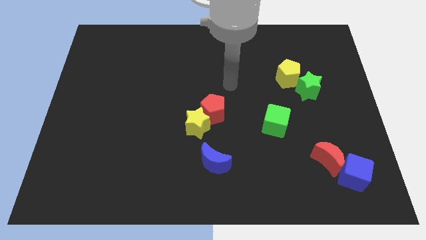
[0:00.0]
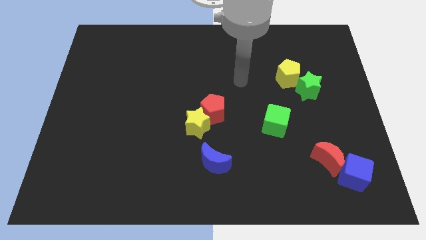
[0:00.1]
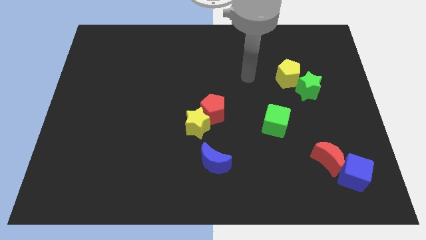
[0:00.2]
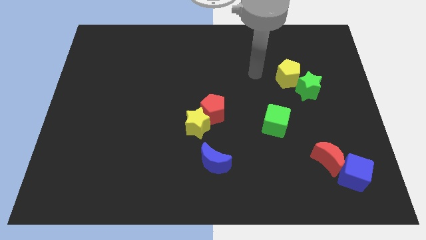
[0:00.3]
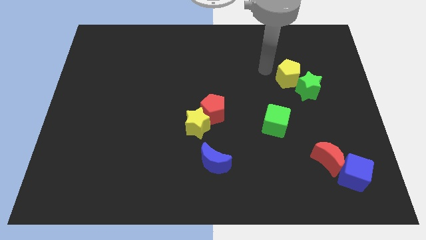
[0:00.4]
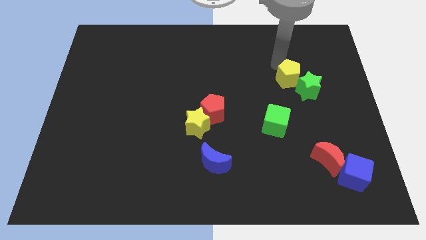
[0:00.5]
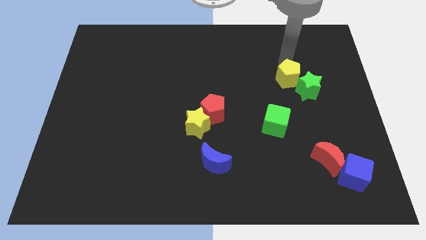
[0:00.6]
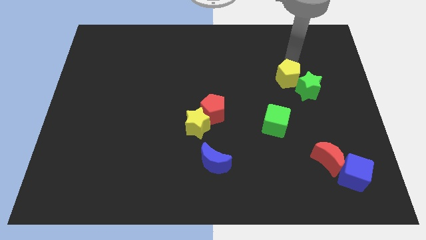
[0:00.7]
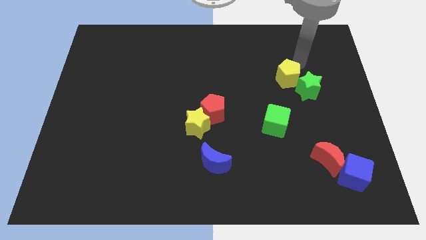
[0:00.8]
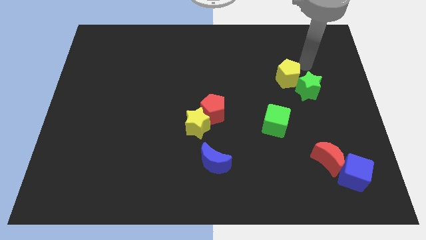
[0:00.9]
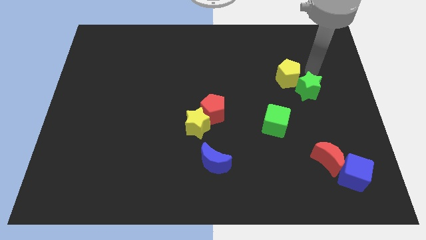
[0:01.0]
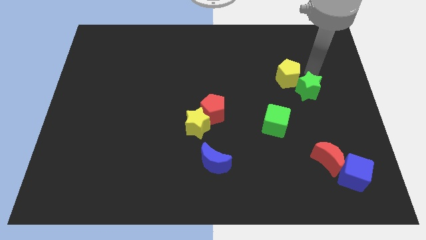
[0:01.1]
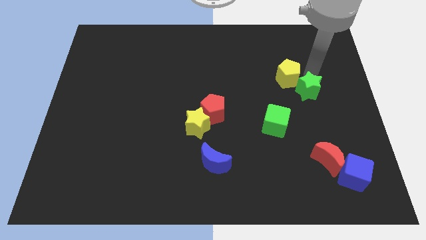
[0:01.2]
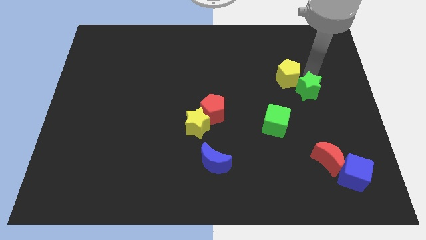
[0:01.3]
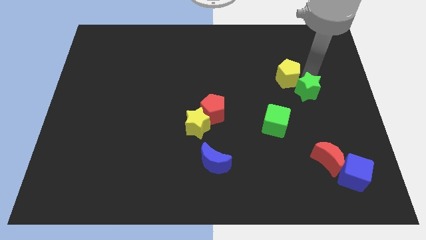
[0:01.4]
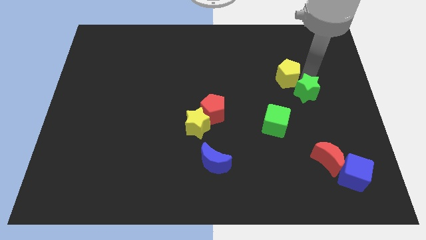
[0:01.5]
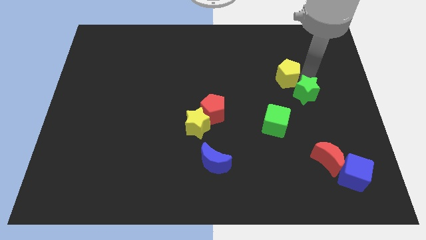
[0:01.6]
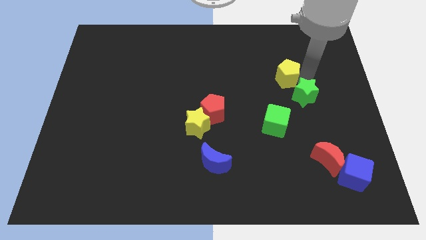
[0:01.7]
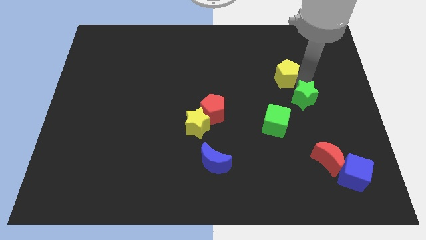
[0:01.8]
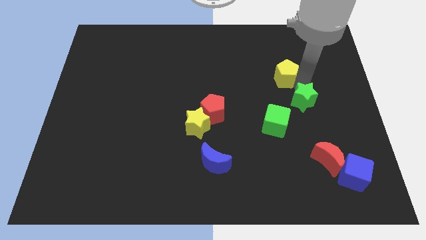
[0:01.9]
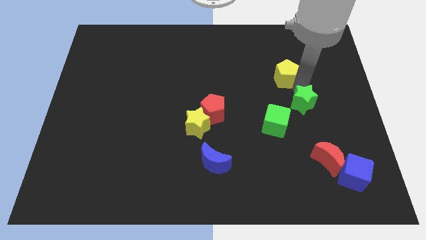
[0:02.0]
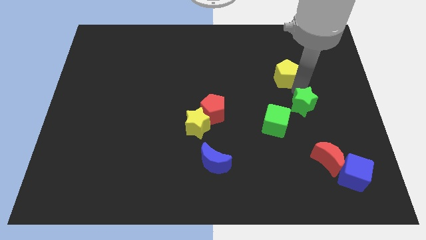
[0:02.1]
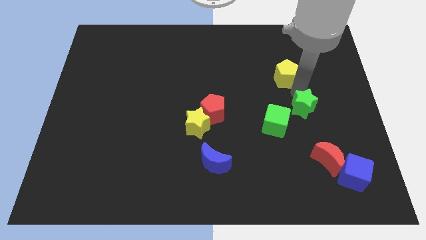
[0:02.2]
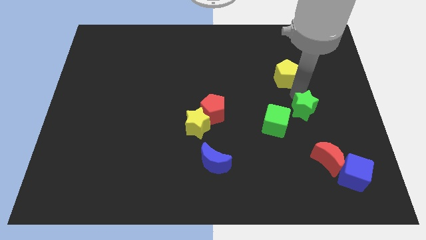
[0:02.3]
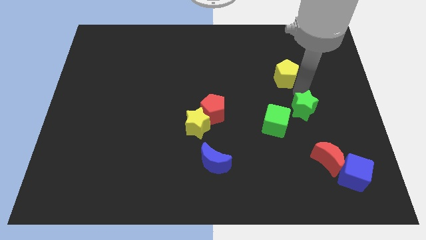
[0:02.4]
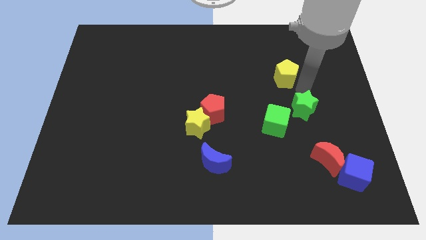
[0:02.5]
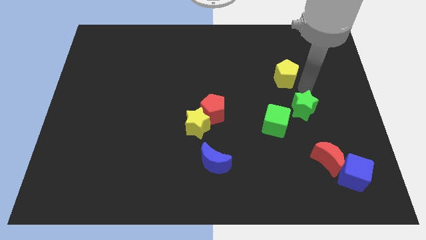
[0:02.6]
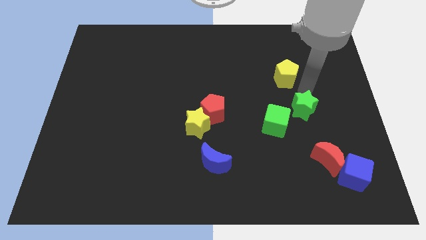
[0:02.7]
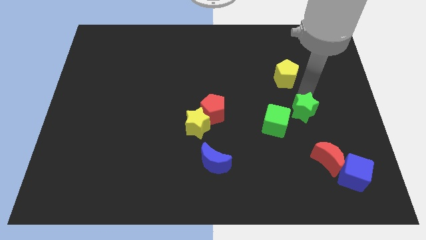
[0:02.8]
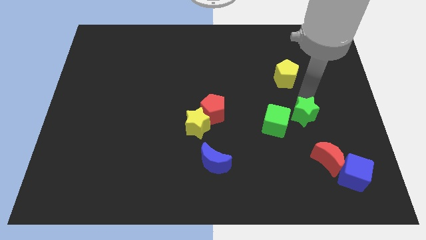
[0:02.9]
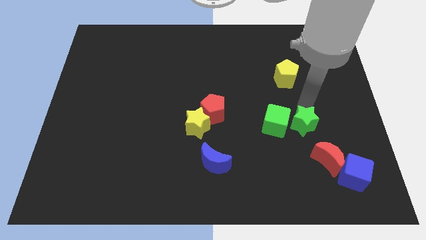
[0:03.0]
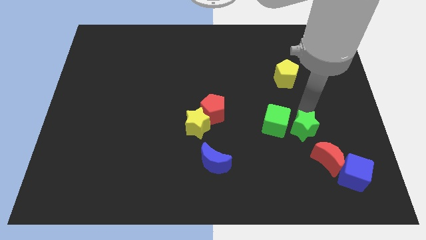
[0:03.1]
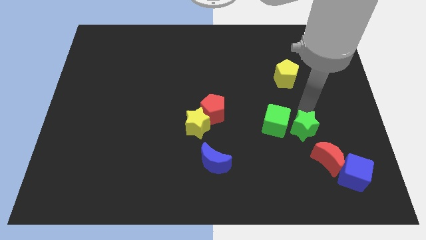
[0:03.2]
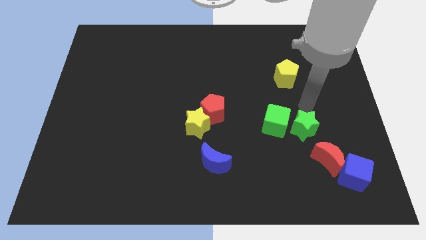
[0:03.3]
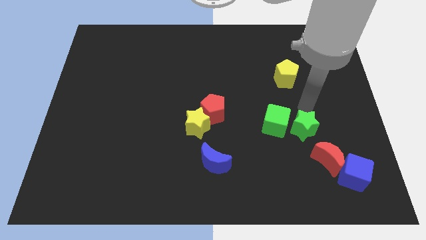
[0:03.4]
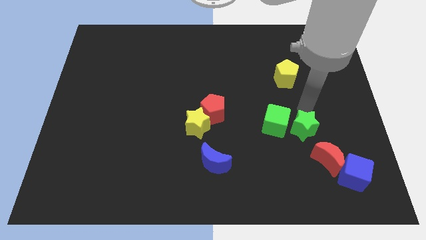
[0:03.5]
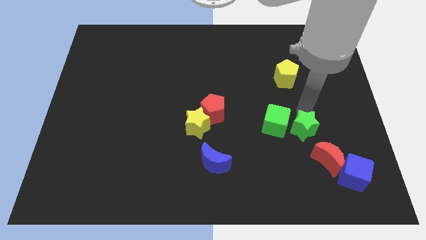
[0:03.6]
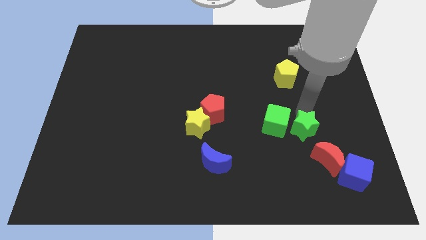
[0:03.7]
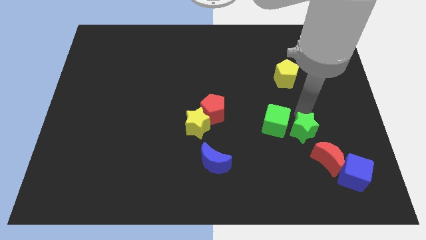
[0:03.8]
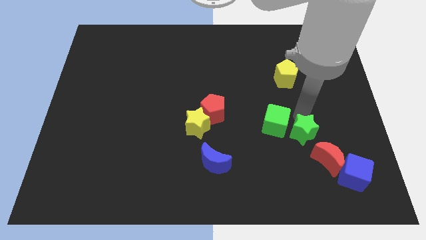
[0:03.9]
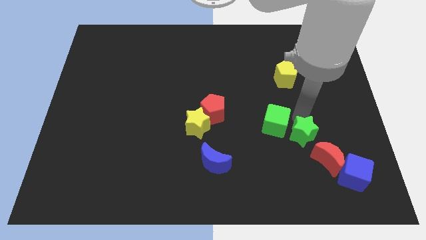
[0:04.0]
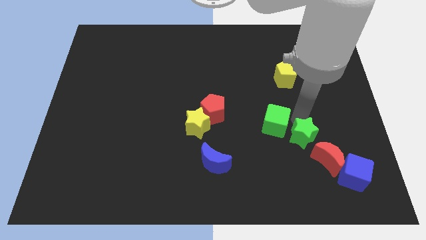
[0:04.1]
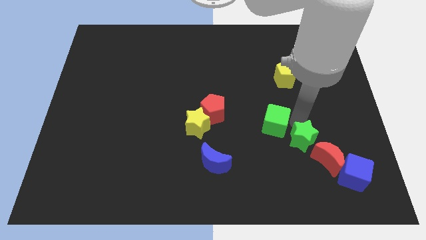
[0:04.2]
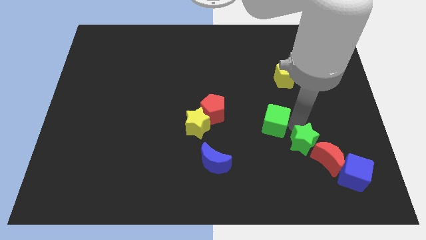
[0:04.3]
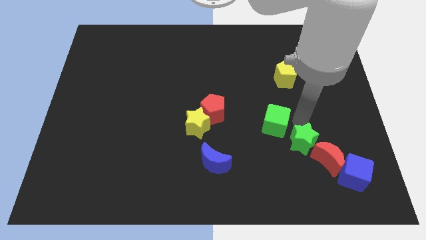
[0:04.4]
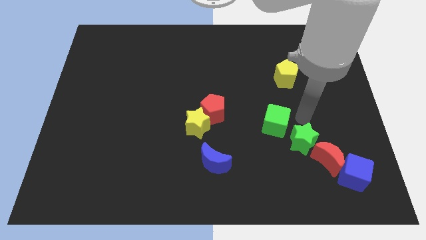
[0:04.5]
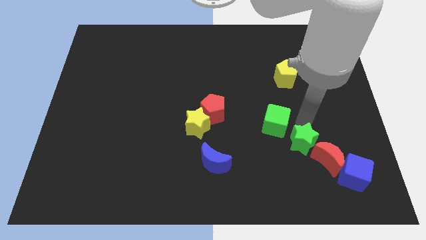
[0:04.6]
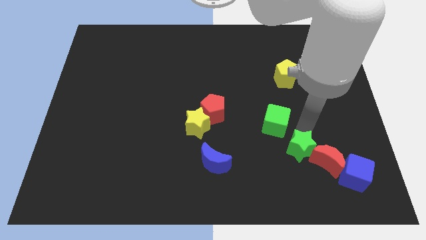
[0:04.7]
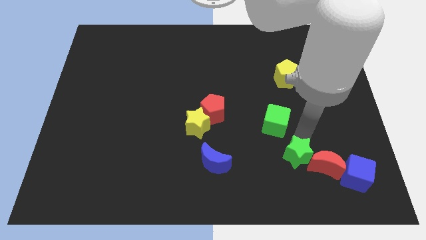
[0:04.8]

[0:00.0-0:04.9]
put the green star to the left side of the blue cube

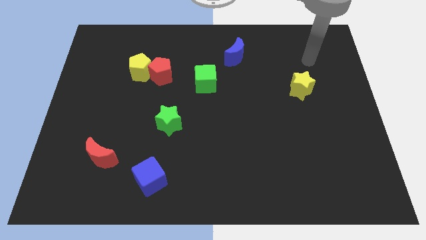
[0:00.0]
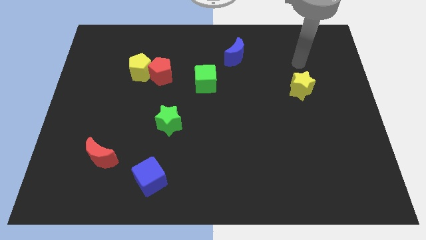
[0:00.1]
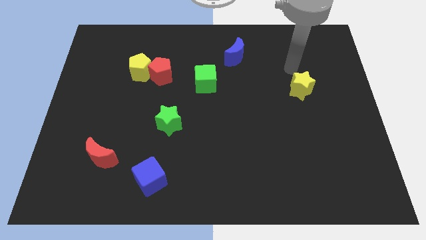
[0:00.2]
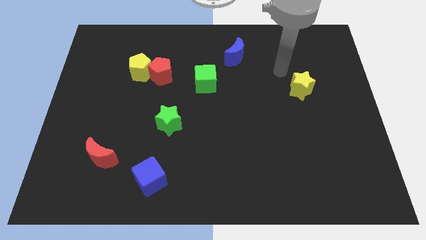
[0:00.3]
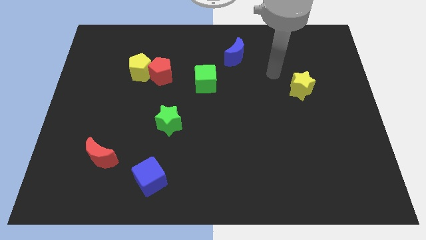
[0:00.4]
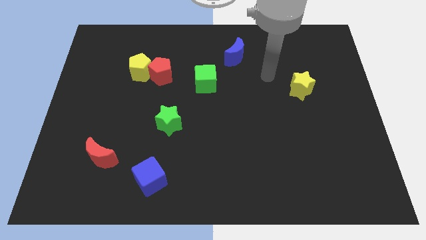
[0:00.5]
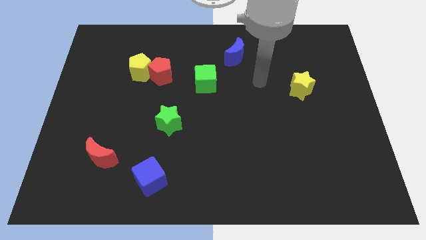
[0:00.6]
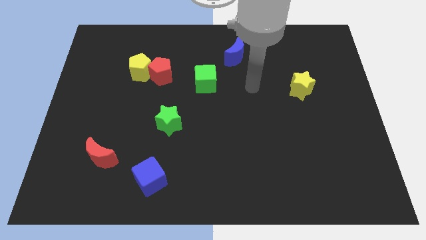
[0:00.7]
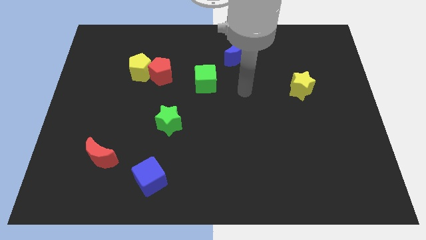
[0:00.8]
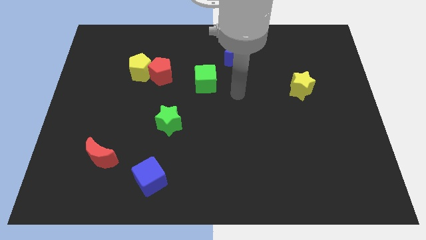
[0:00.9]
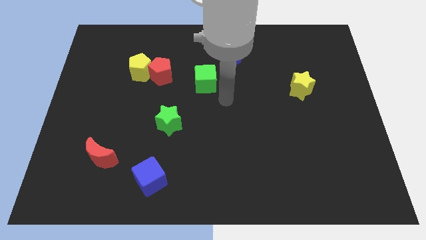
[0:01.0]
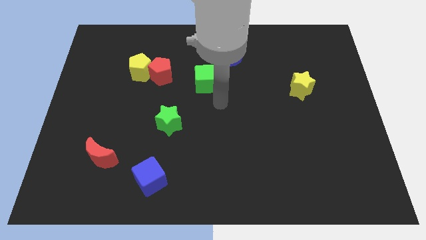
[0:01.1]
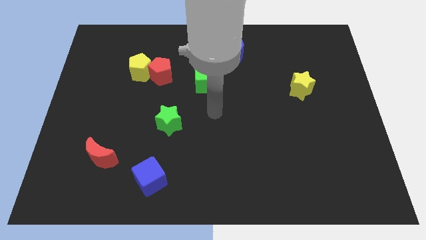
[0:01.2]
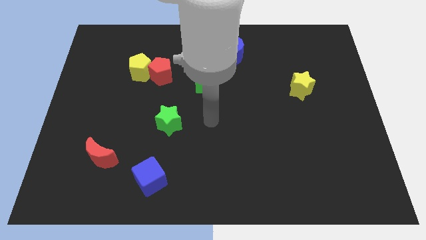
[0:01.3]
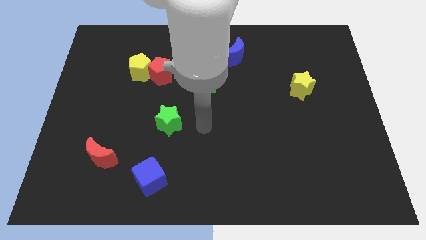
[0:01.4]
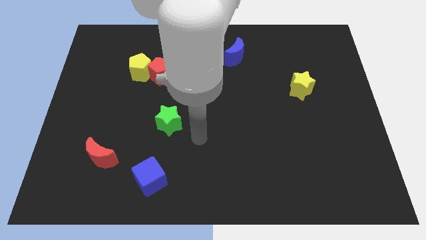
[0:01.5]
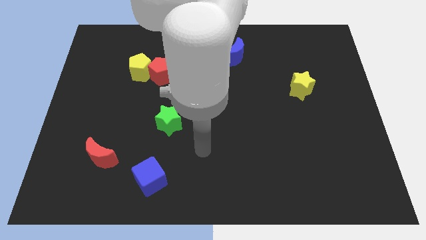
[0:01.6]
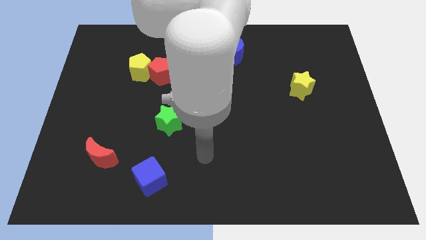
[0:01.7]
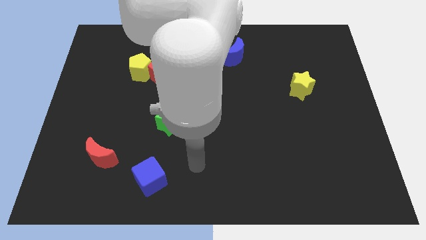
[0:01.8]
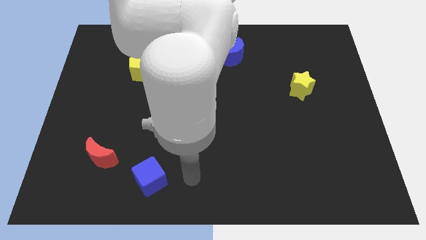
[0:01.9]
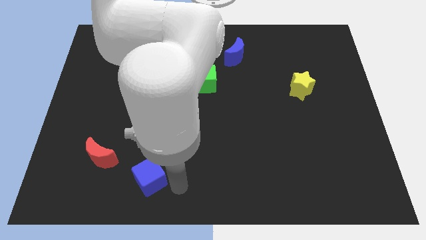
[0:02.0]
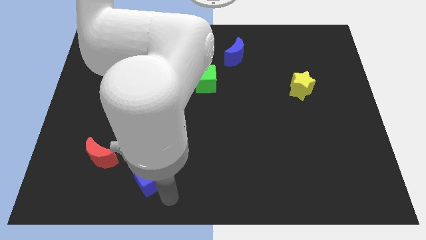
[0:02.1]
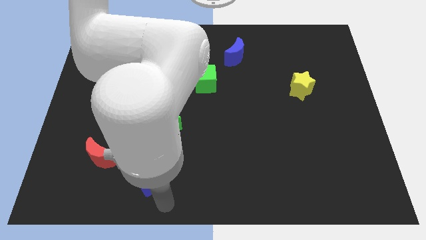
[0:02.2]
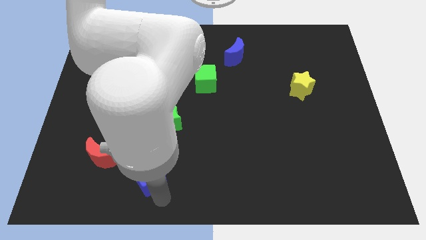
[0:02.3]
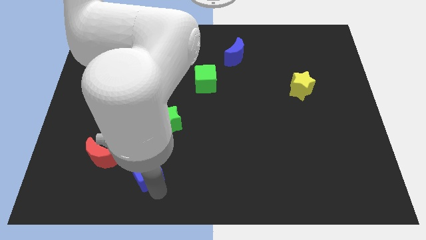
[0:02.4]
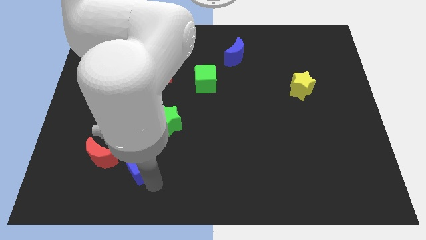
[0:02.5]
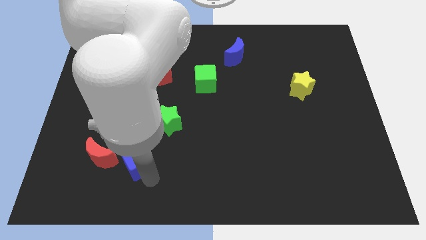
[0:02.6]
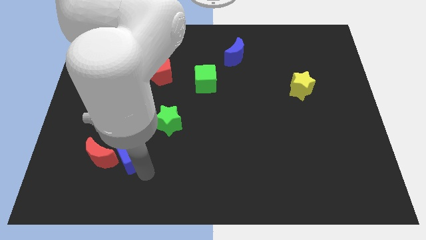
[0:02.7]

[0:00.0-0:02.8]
push the blue cube diagonally up and to the right of the red moon

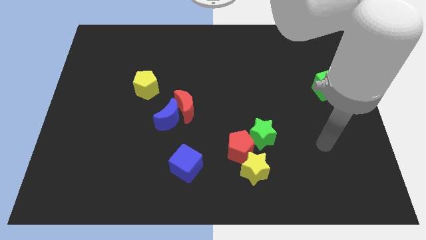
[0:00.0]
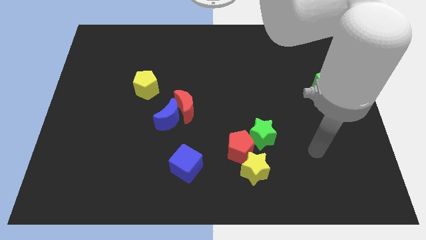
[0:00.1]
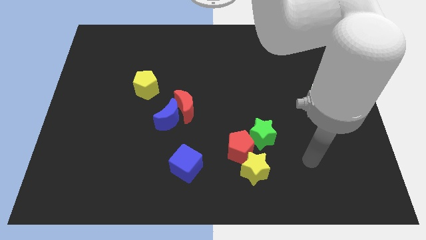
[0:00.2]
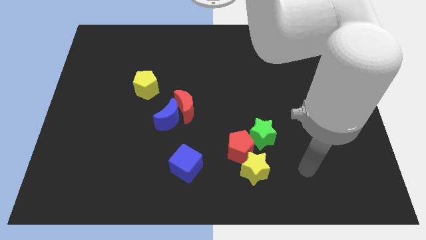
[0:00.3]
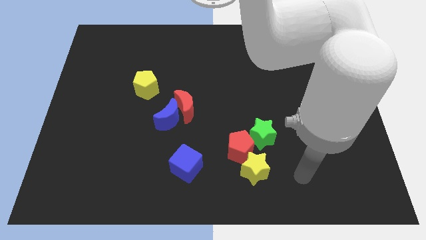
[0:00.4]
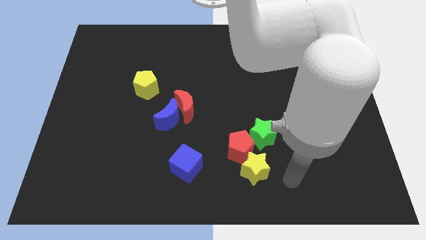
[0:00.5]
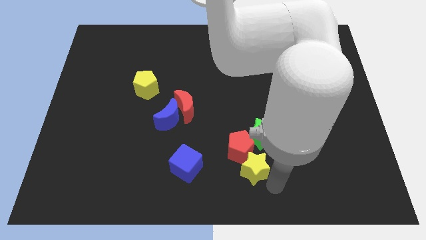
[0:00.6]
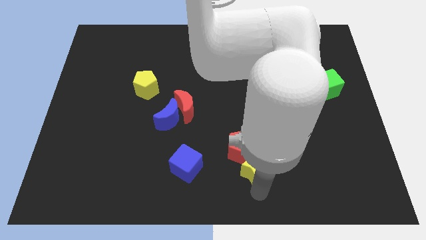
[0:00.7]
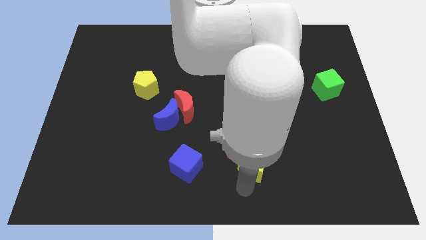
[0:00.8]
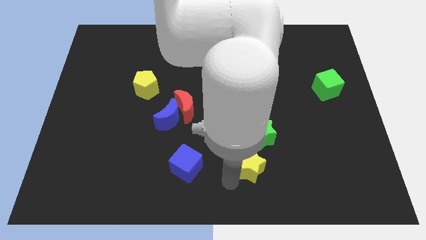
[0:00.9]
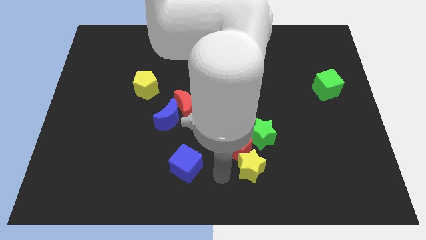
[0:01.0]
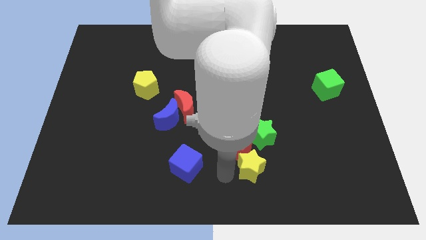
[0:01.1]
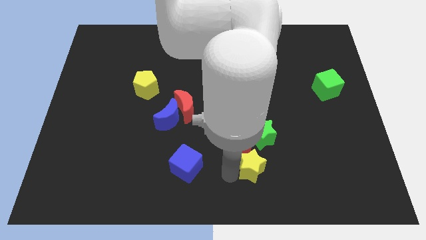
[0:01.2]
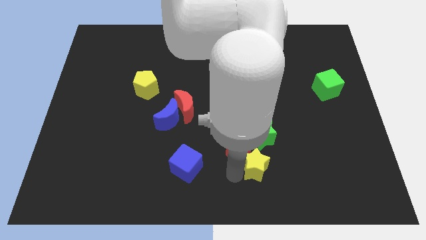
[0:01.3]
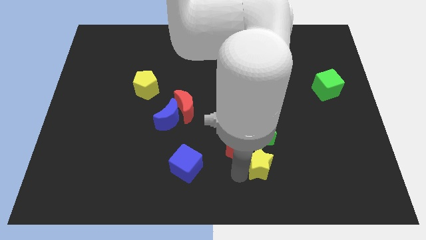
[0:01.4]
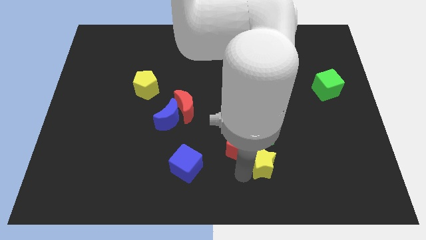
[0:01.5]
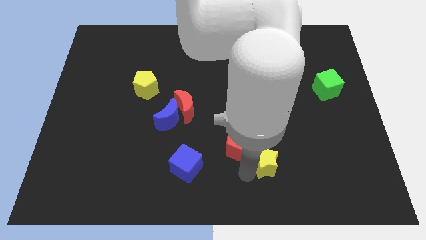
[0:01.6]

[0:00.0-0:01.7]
put the yellow star to the bottom right side of the green star
